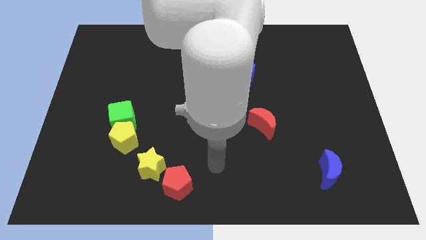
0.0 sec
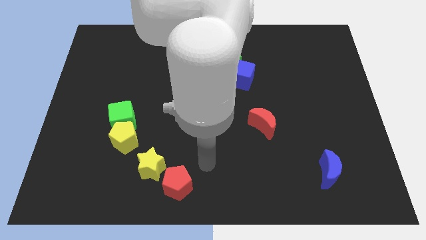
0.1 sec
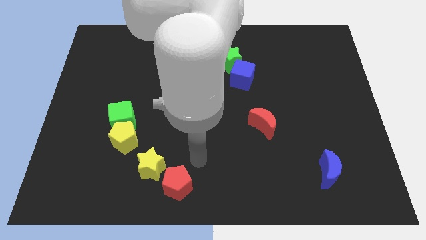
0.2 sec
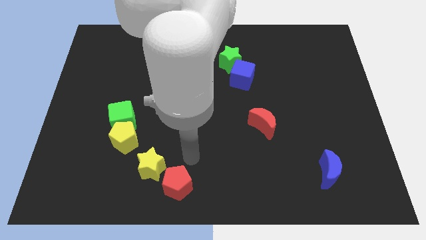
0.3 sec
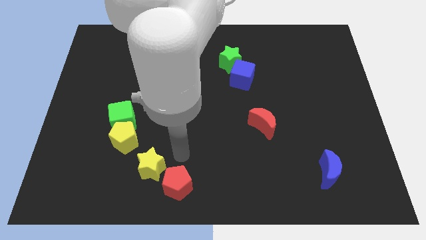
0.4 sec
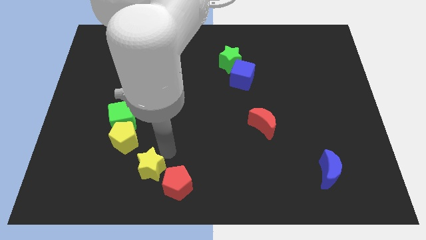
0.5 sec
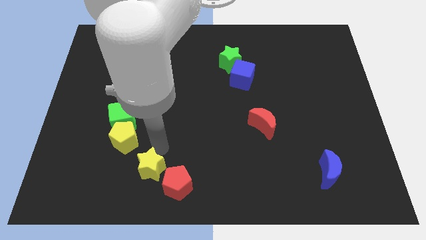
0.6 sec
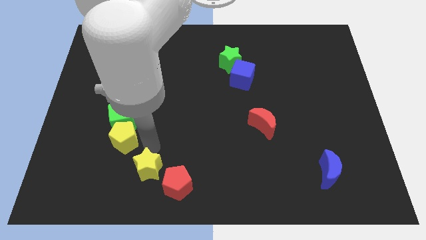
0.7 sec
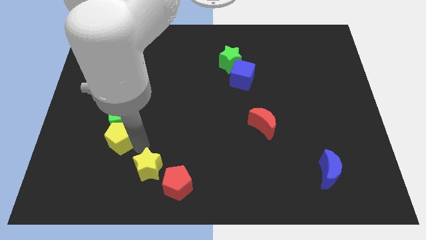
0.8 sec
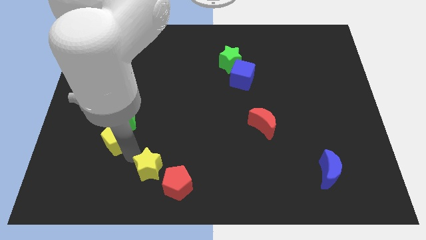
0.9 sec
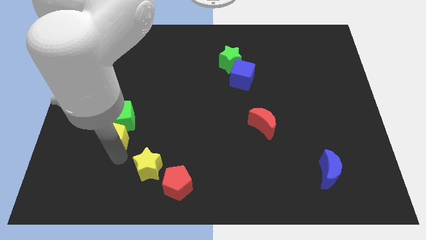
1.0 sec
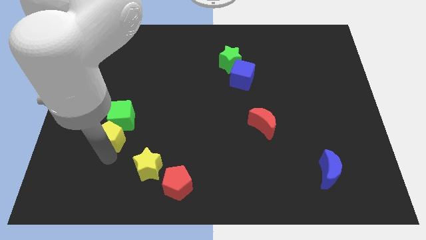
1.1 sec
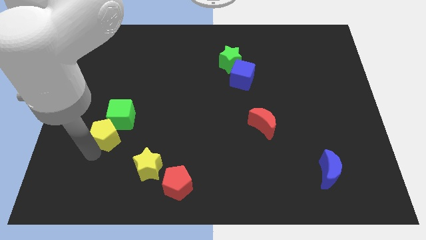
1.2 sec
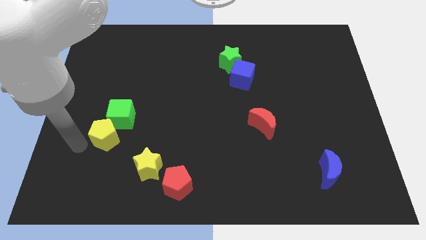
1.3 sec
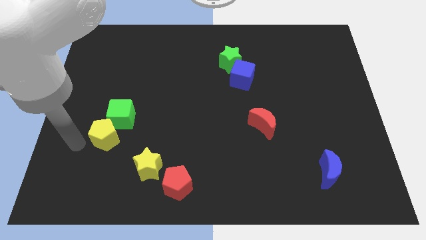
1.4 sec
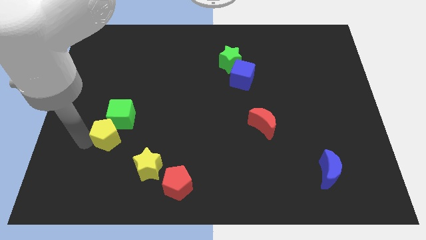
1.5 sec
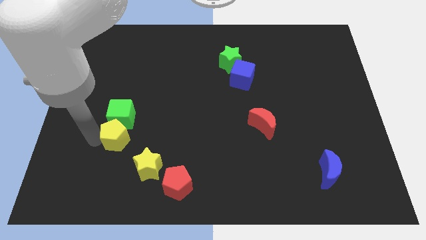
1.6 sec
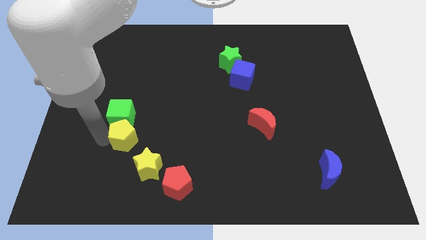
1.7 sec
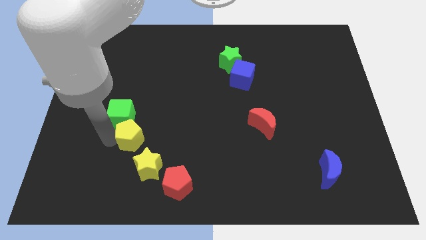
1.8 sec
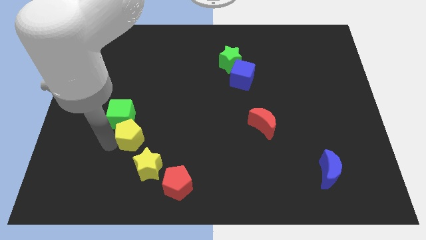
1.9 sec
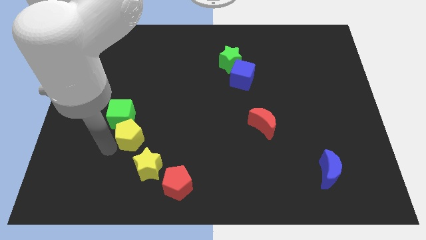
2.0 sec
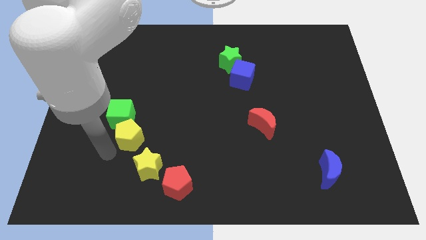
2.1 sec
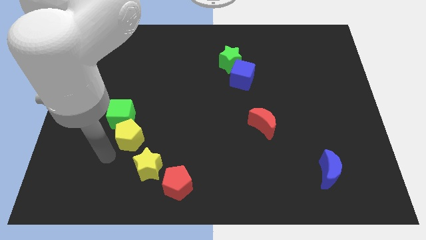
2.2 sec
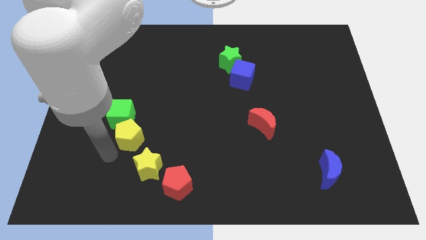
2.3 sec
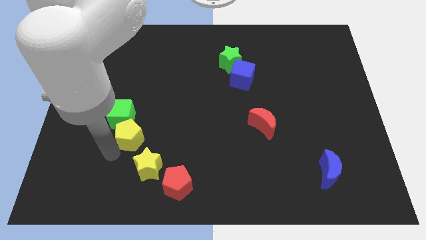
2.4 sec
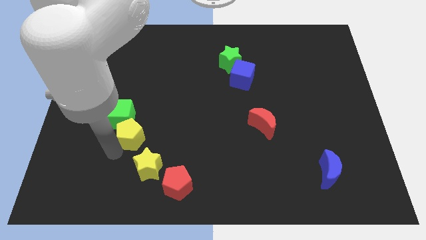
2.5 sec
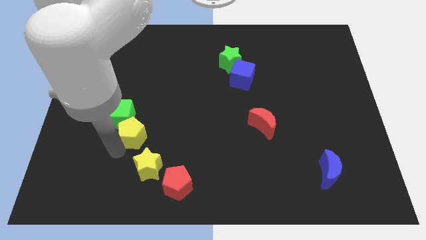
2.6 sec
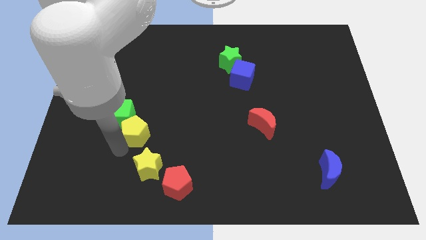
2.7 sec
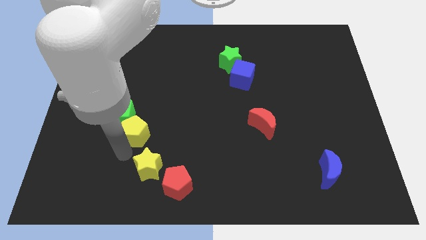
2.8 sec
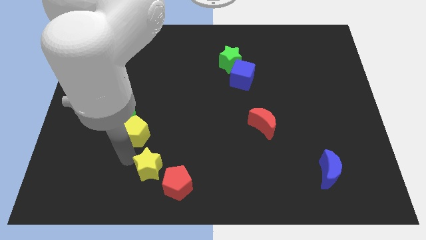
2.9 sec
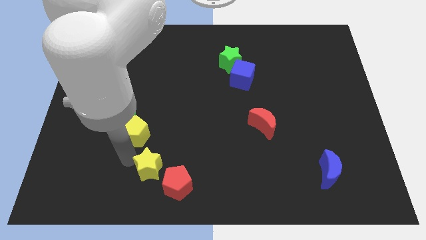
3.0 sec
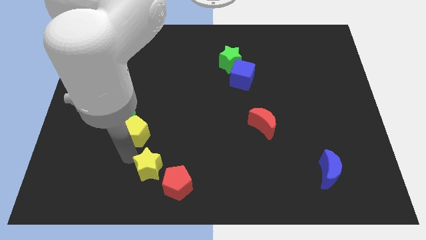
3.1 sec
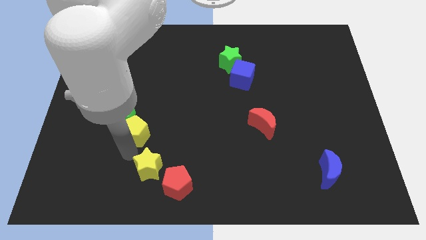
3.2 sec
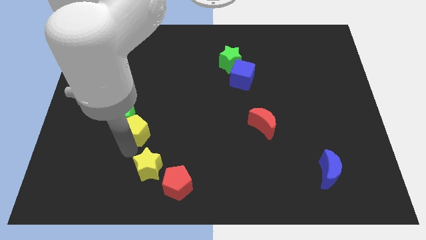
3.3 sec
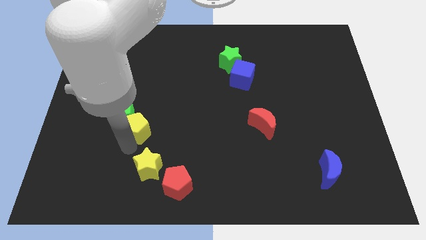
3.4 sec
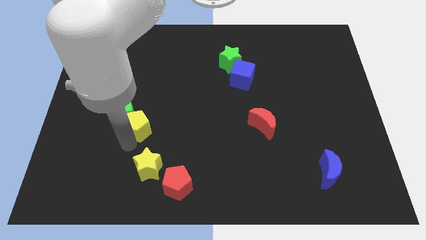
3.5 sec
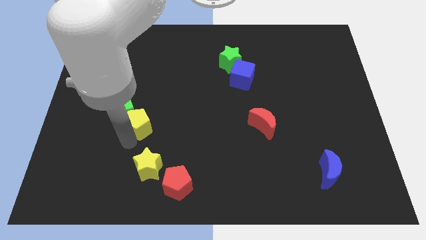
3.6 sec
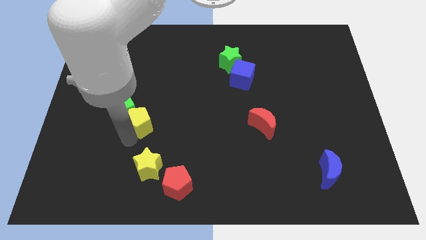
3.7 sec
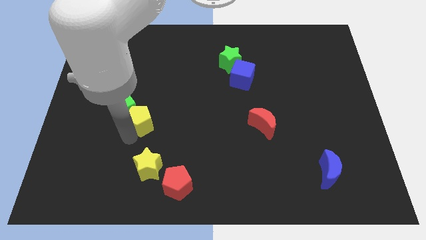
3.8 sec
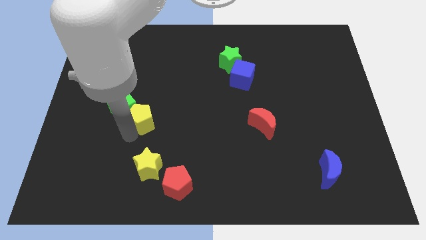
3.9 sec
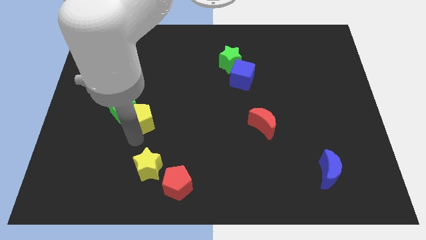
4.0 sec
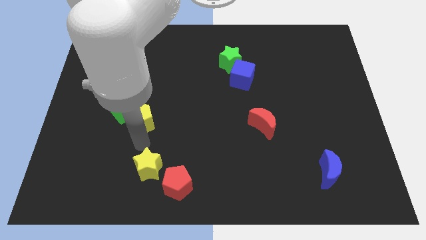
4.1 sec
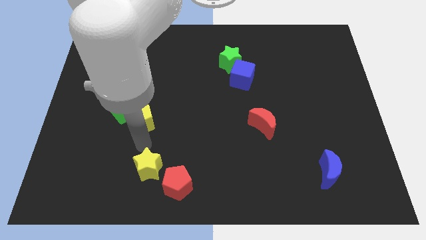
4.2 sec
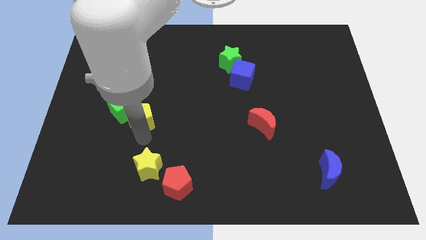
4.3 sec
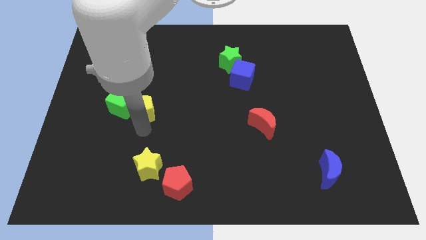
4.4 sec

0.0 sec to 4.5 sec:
slide the yellow pentagon up slightly

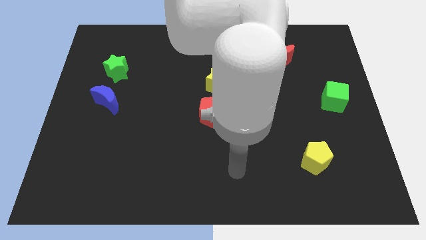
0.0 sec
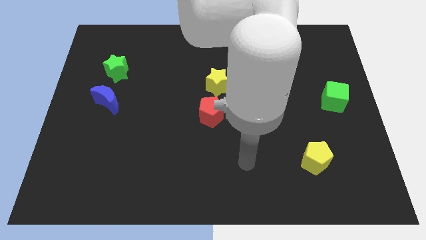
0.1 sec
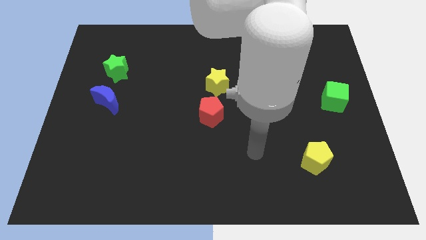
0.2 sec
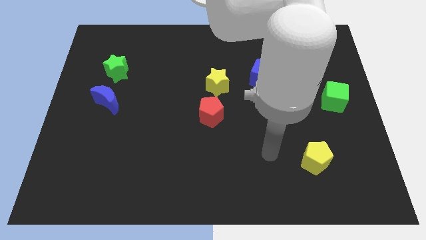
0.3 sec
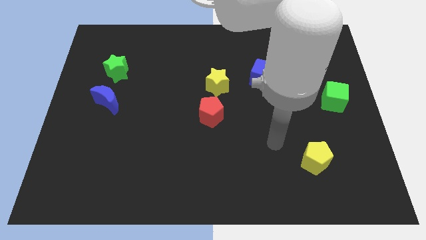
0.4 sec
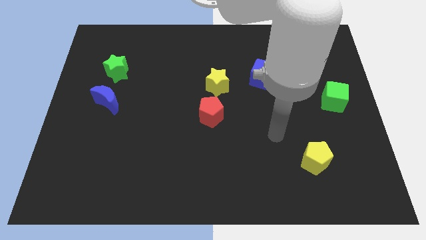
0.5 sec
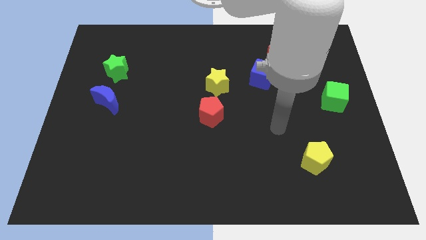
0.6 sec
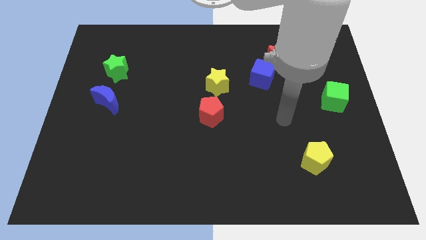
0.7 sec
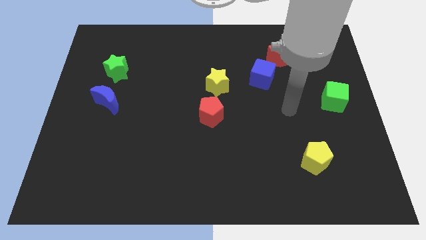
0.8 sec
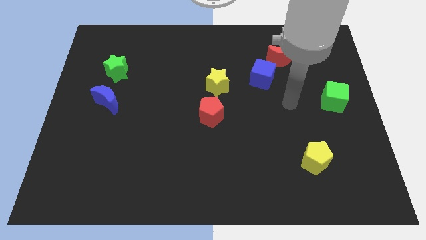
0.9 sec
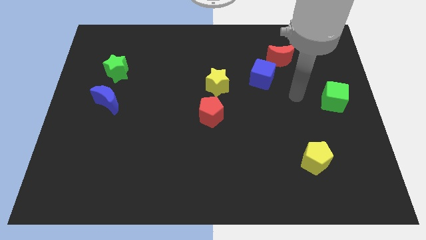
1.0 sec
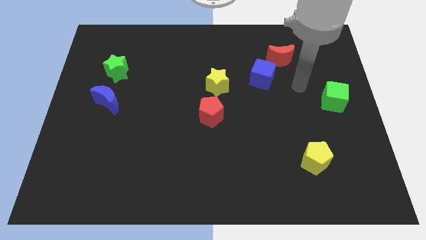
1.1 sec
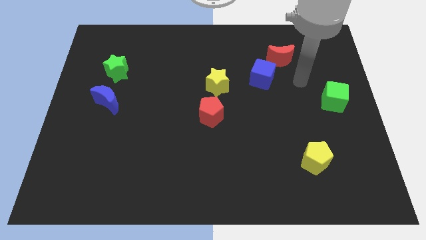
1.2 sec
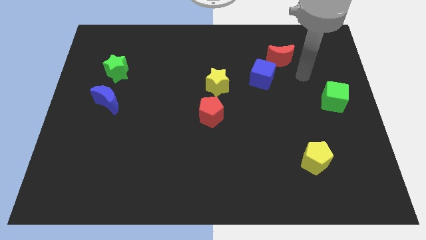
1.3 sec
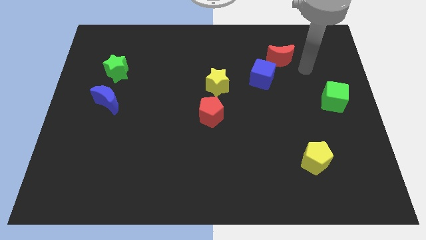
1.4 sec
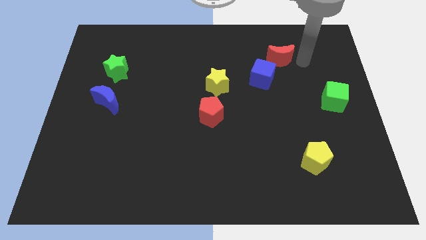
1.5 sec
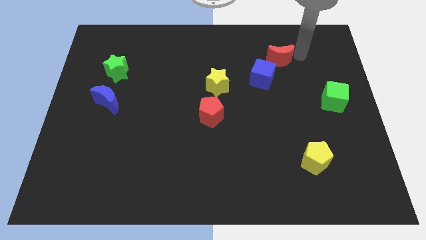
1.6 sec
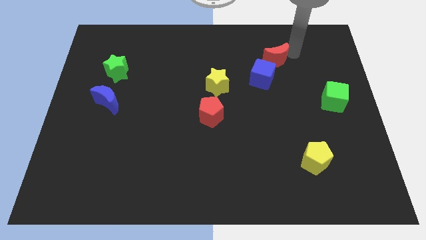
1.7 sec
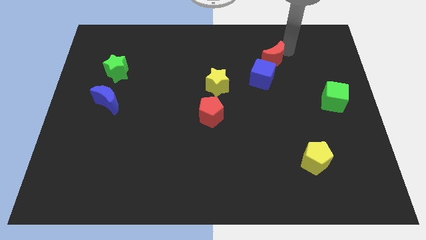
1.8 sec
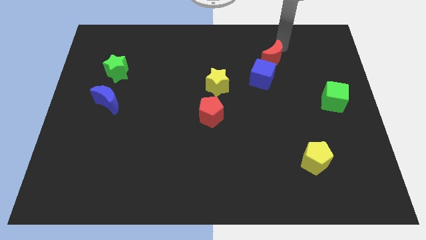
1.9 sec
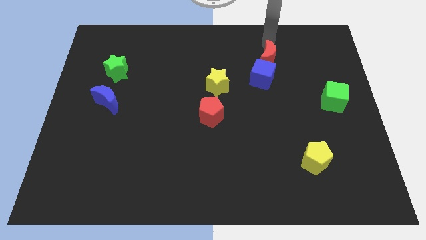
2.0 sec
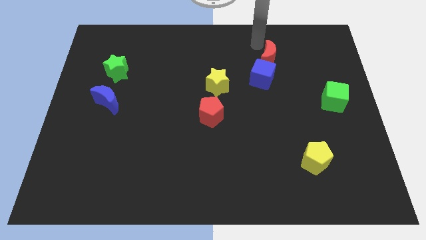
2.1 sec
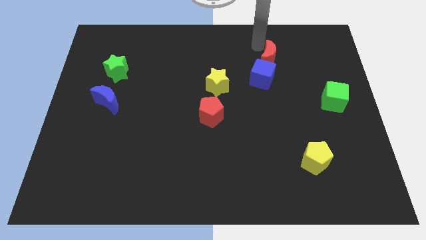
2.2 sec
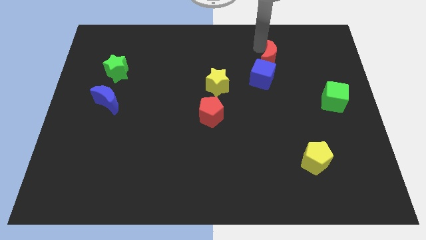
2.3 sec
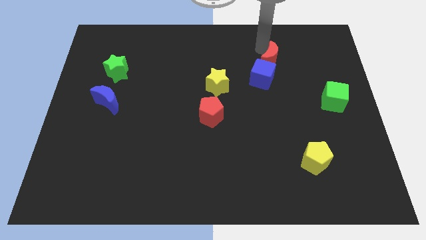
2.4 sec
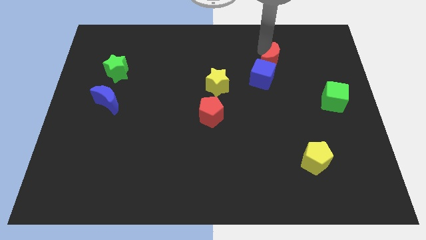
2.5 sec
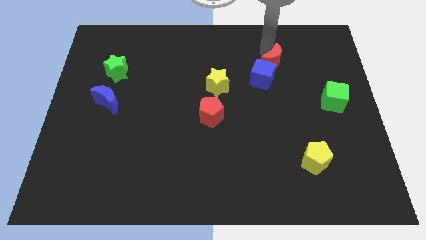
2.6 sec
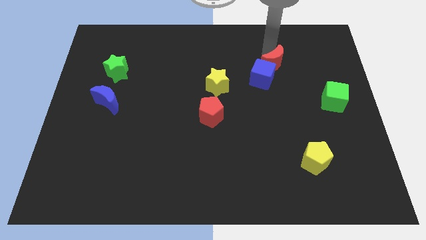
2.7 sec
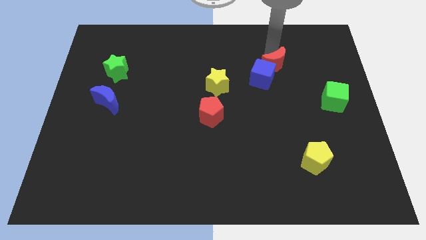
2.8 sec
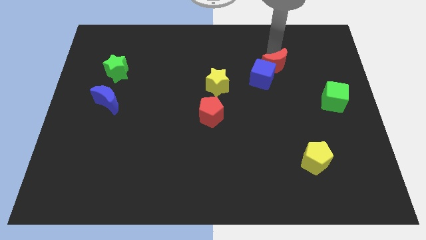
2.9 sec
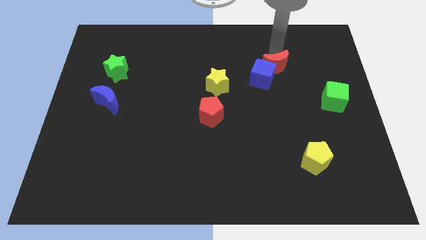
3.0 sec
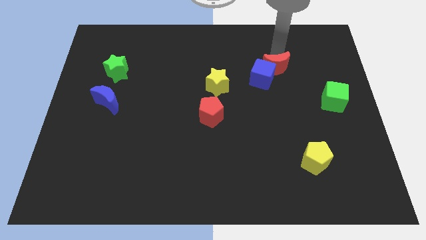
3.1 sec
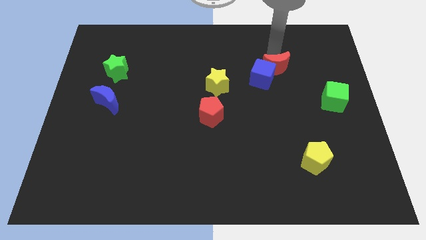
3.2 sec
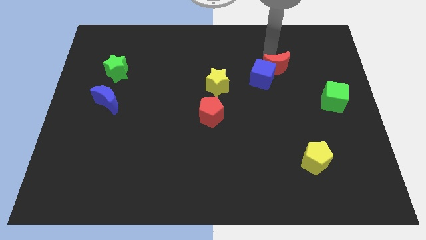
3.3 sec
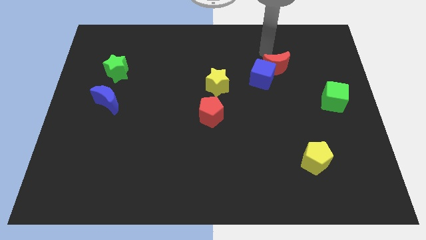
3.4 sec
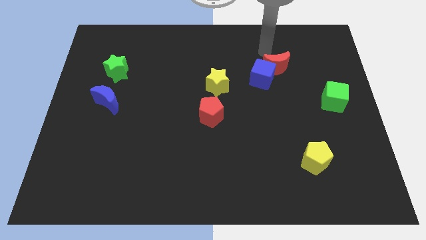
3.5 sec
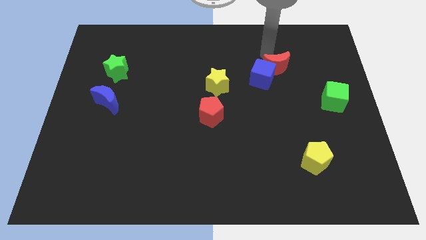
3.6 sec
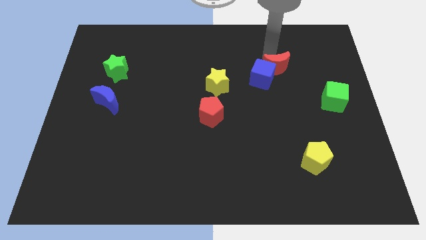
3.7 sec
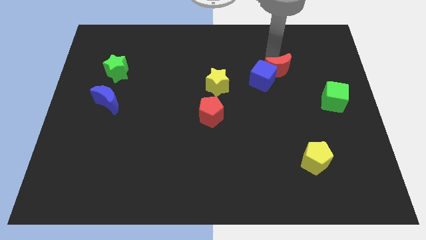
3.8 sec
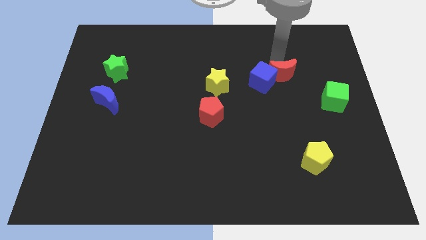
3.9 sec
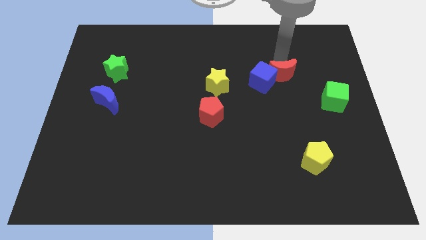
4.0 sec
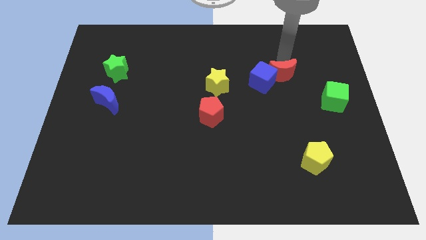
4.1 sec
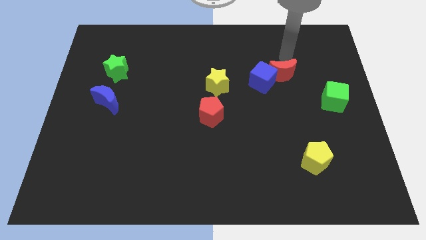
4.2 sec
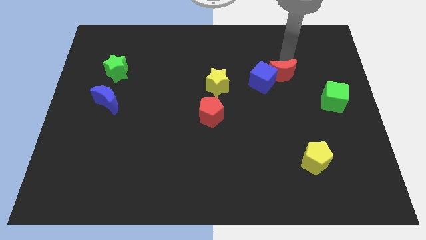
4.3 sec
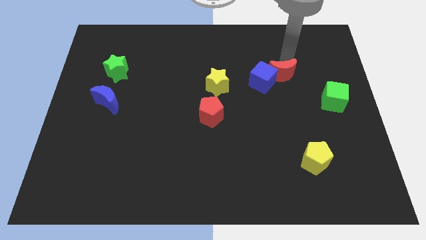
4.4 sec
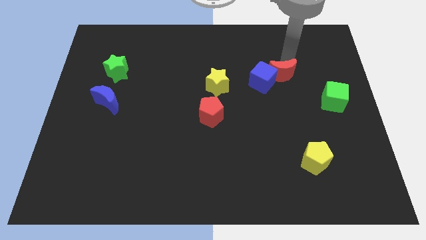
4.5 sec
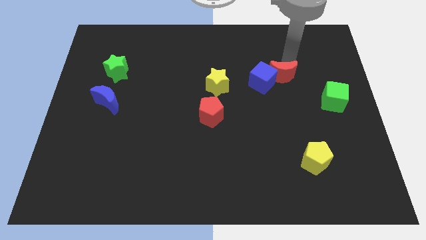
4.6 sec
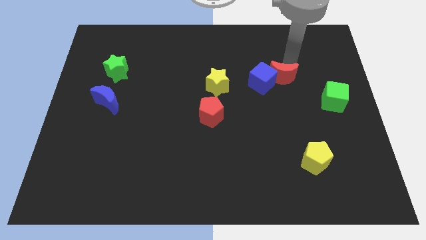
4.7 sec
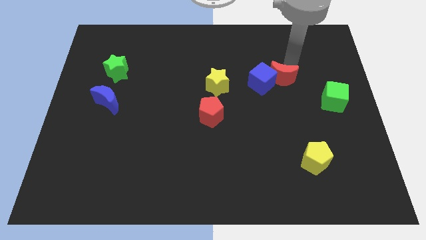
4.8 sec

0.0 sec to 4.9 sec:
slide the red moon down a little
